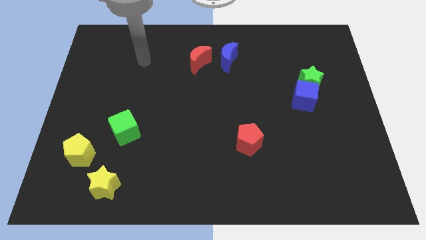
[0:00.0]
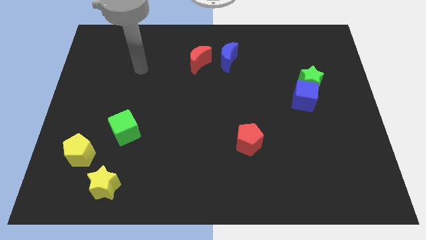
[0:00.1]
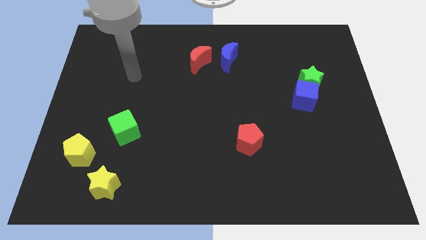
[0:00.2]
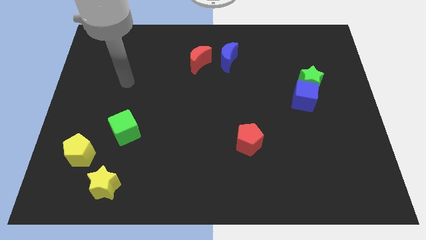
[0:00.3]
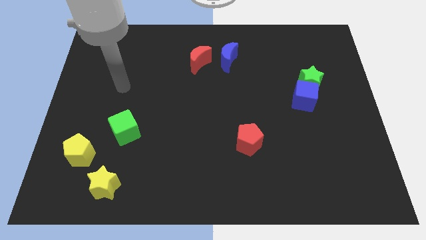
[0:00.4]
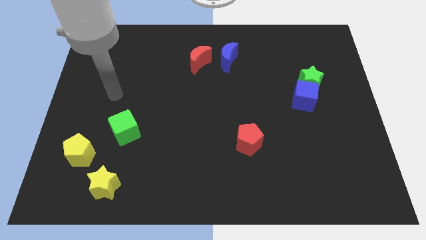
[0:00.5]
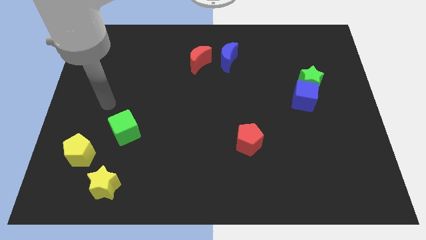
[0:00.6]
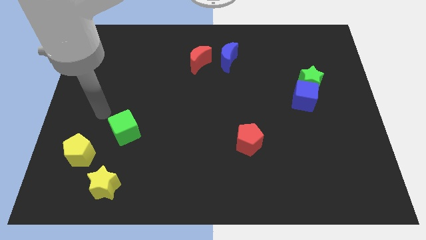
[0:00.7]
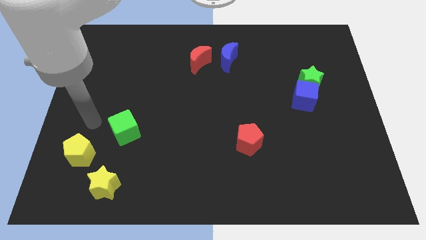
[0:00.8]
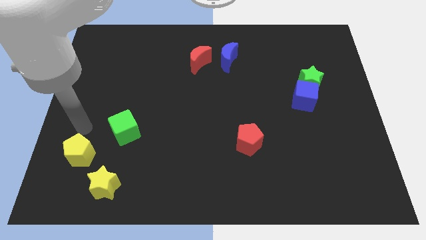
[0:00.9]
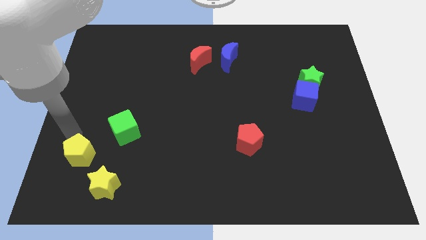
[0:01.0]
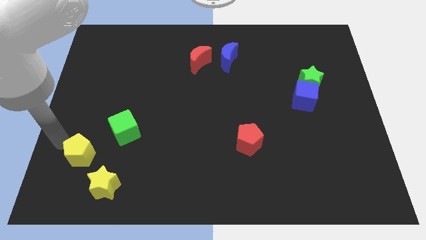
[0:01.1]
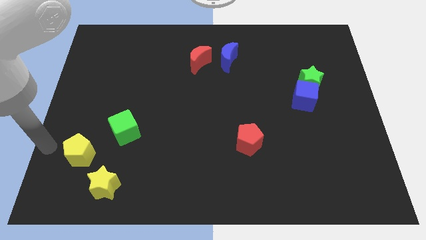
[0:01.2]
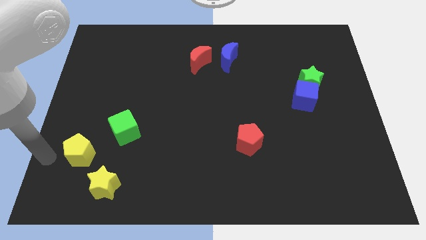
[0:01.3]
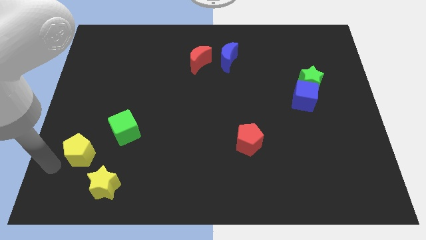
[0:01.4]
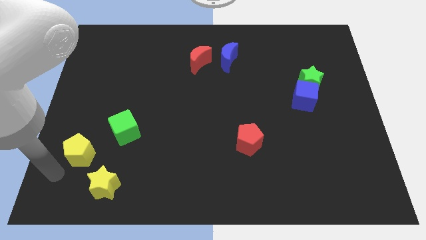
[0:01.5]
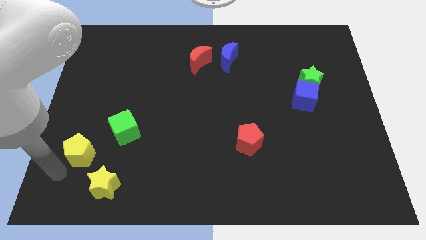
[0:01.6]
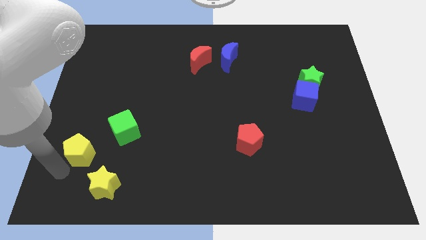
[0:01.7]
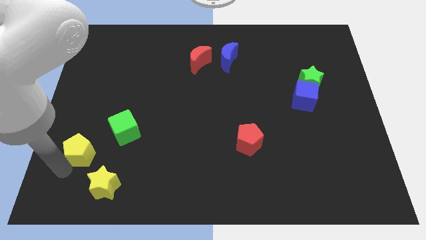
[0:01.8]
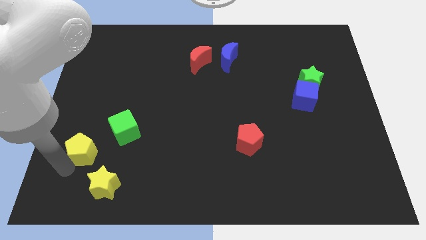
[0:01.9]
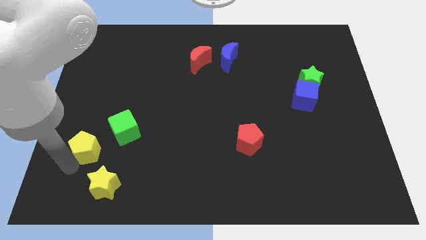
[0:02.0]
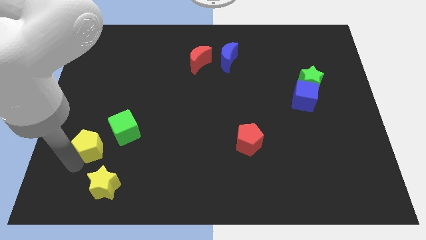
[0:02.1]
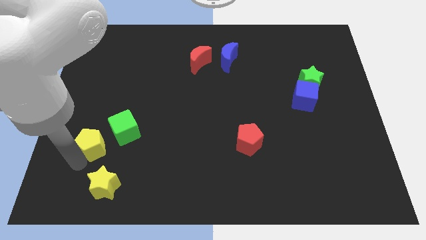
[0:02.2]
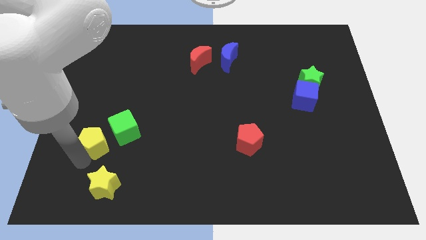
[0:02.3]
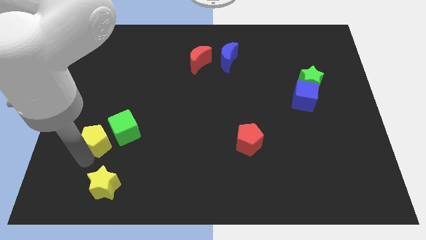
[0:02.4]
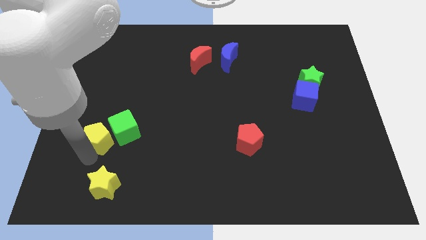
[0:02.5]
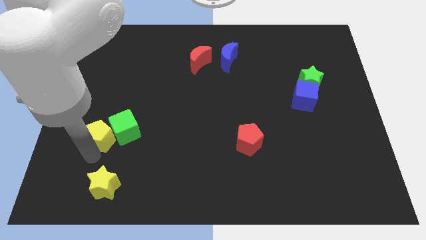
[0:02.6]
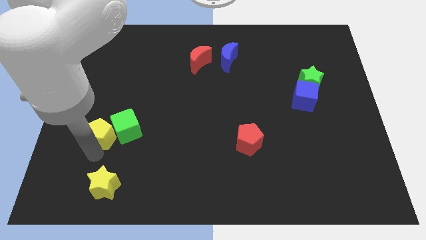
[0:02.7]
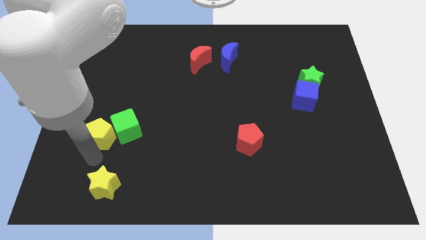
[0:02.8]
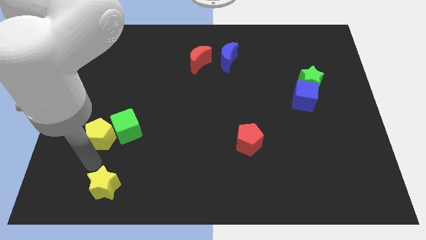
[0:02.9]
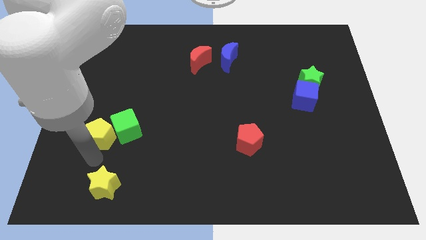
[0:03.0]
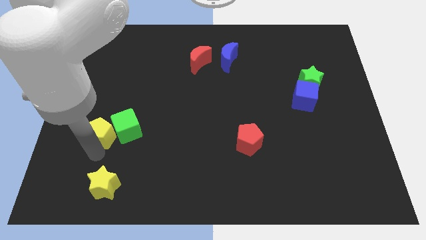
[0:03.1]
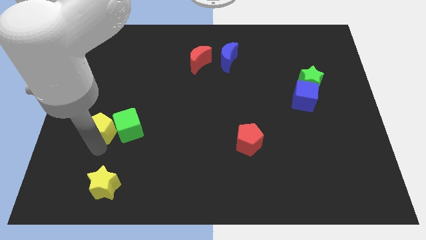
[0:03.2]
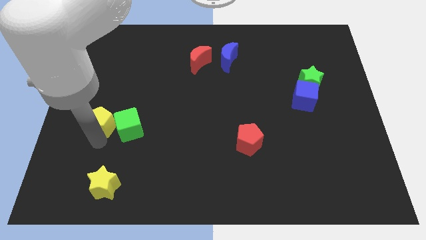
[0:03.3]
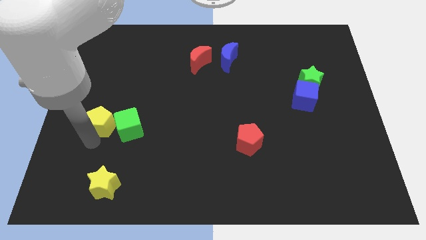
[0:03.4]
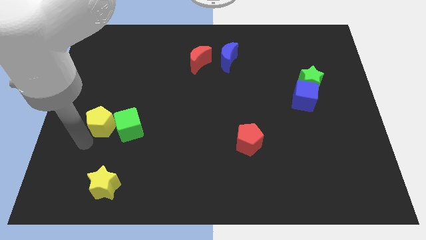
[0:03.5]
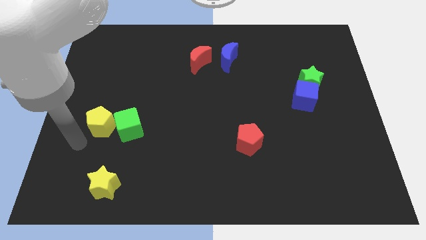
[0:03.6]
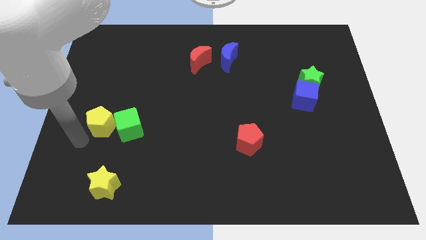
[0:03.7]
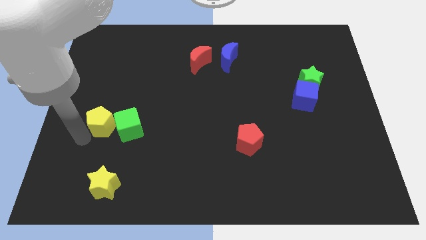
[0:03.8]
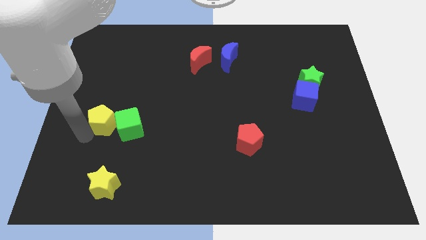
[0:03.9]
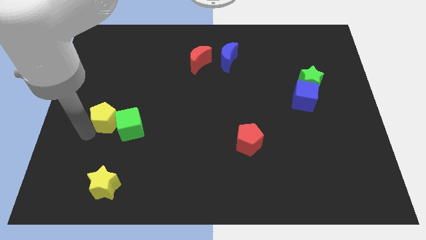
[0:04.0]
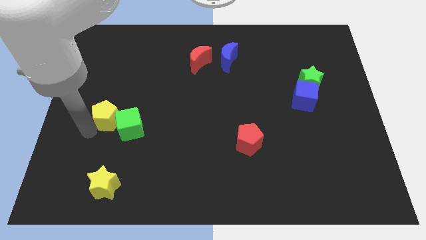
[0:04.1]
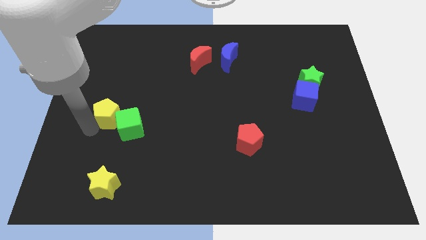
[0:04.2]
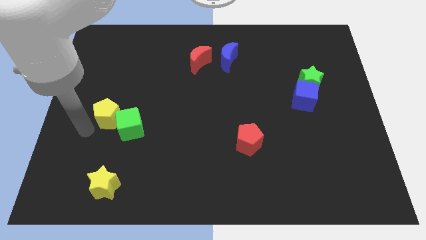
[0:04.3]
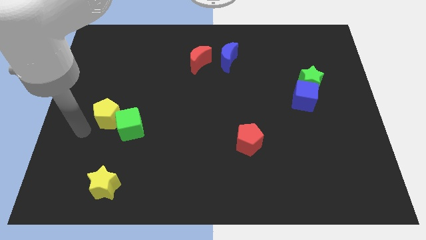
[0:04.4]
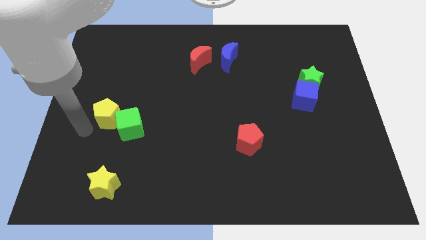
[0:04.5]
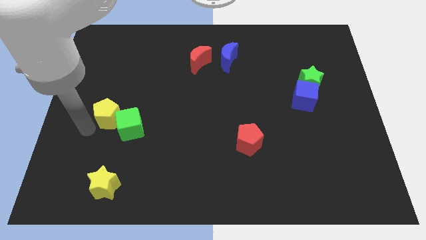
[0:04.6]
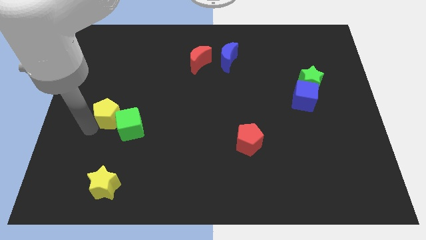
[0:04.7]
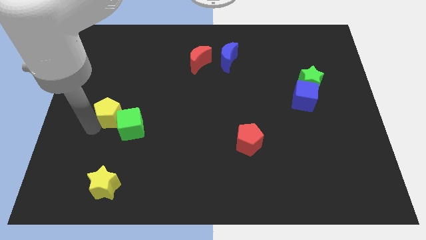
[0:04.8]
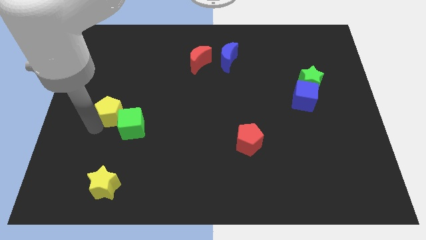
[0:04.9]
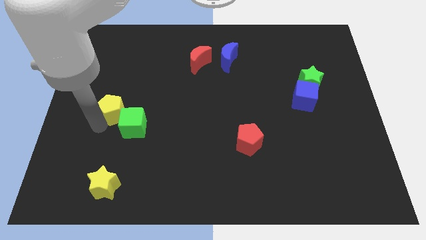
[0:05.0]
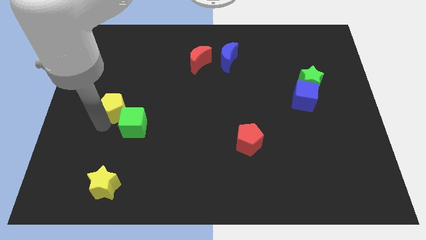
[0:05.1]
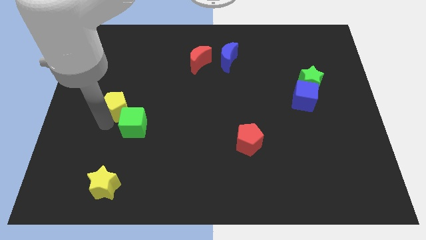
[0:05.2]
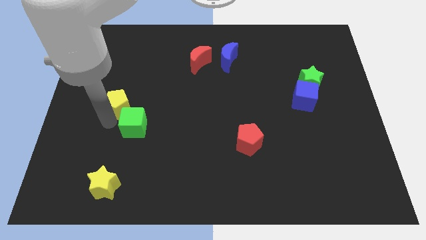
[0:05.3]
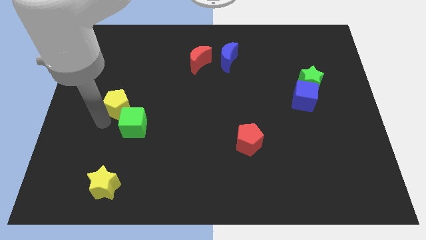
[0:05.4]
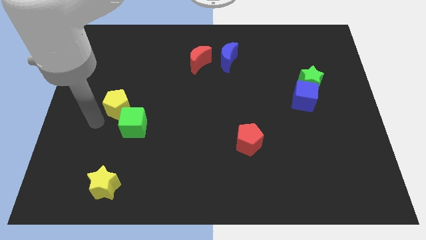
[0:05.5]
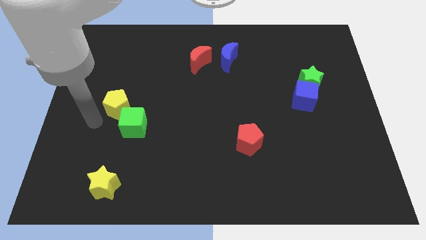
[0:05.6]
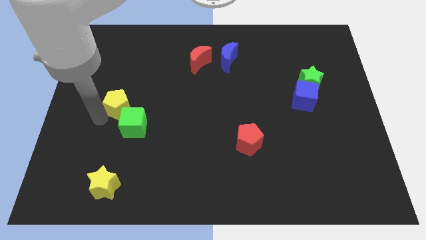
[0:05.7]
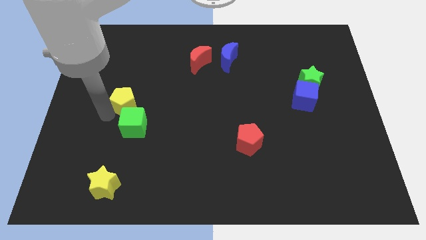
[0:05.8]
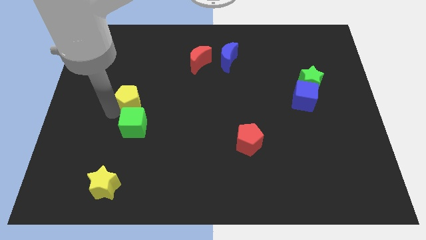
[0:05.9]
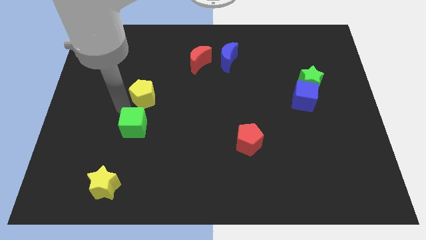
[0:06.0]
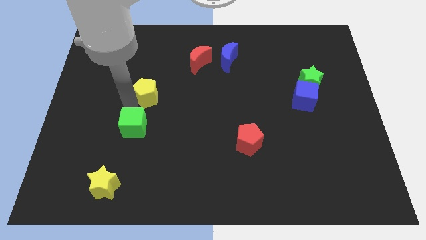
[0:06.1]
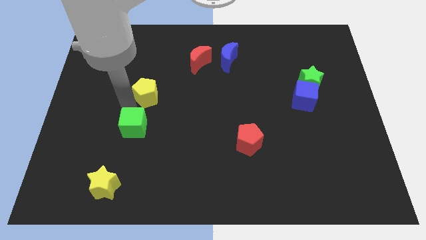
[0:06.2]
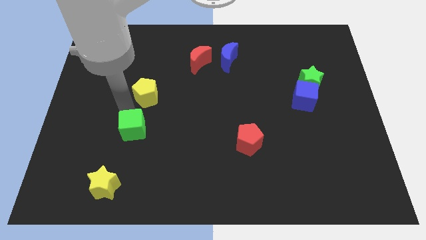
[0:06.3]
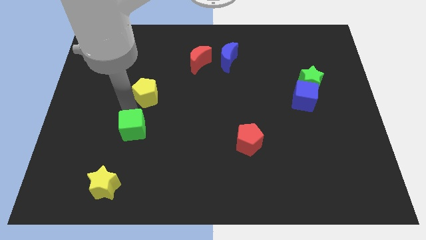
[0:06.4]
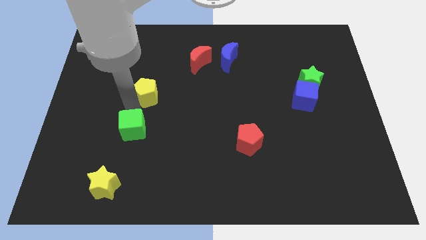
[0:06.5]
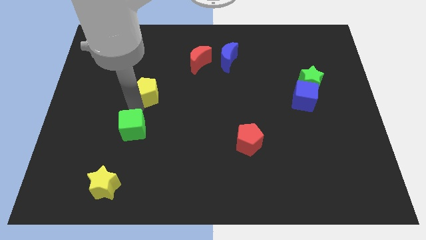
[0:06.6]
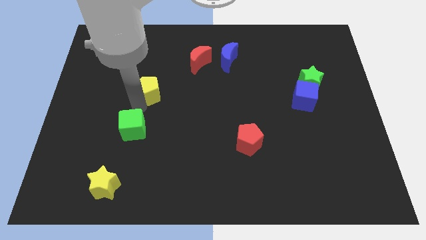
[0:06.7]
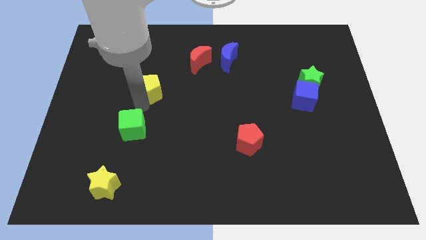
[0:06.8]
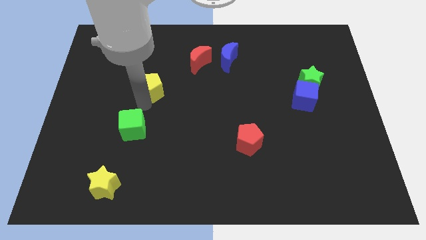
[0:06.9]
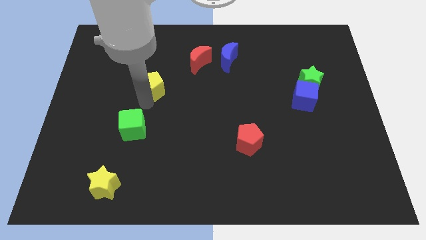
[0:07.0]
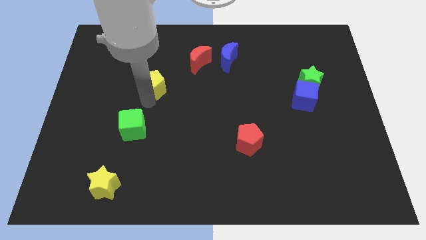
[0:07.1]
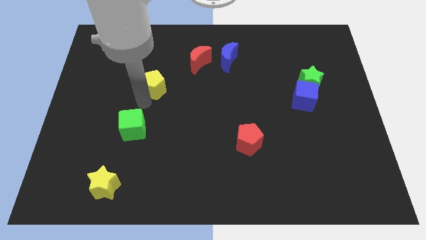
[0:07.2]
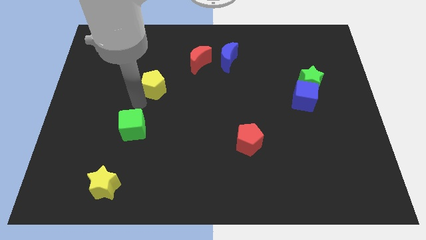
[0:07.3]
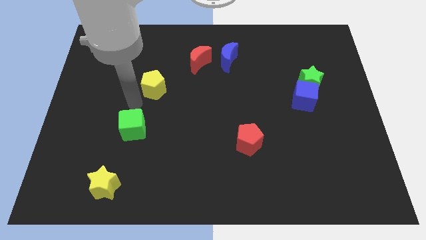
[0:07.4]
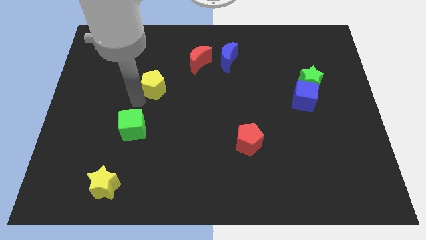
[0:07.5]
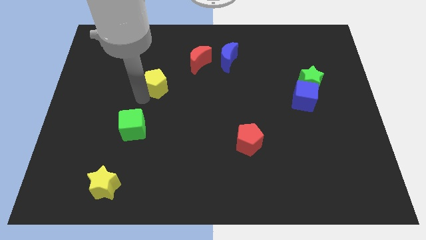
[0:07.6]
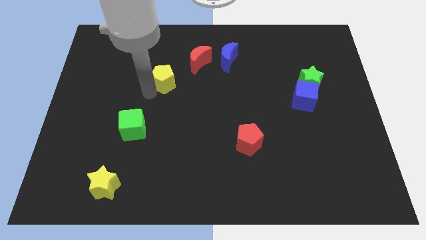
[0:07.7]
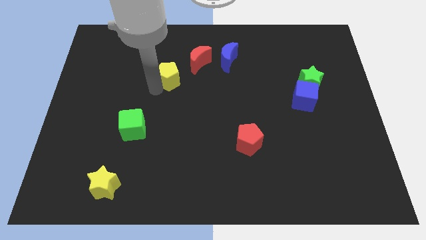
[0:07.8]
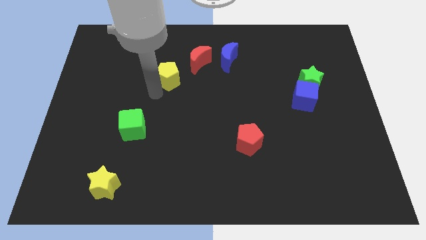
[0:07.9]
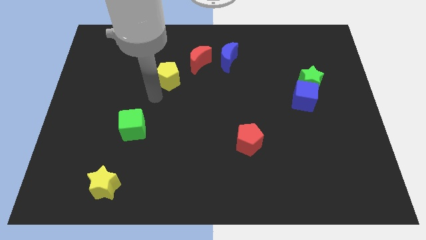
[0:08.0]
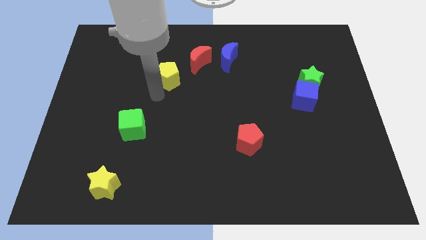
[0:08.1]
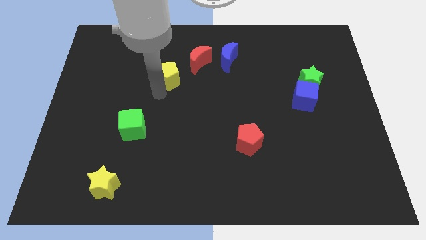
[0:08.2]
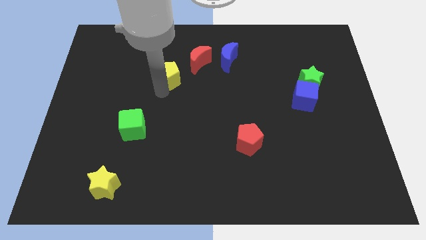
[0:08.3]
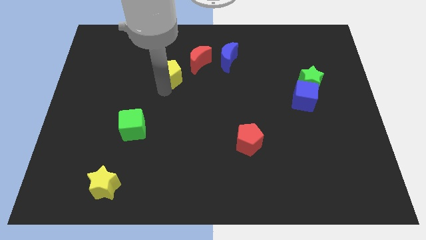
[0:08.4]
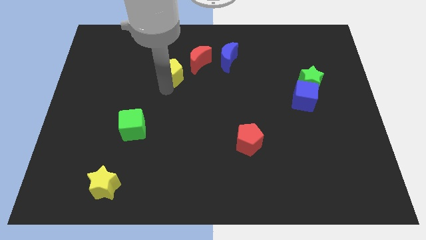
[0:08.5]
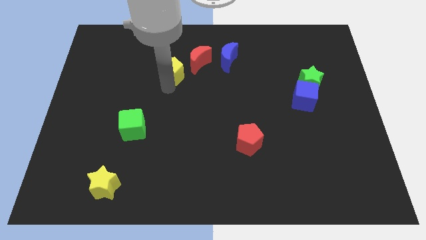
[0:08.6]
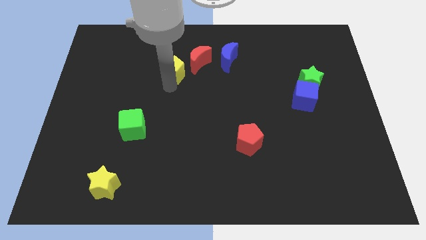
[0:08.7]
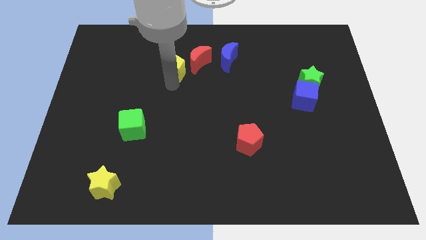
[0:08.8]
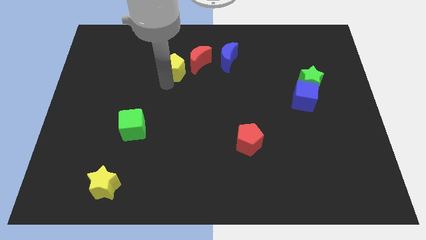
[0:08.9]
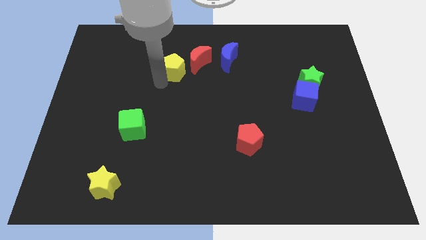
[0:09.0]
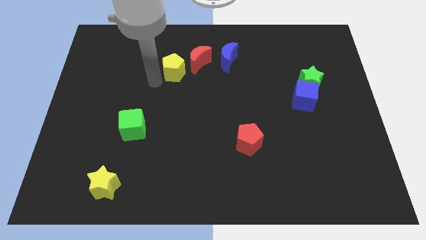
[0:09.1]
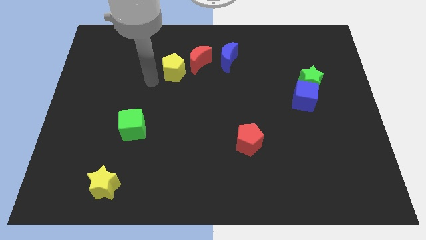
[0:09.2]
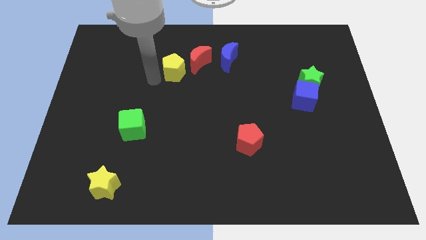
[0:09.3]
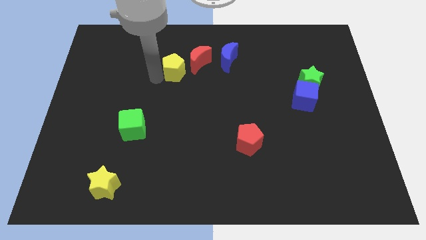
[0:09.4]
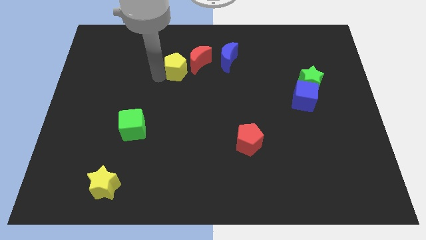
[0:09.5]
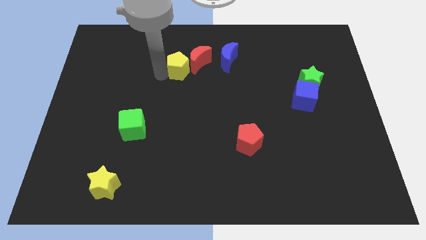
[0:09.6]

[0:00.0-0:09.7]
push the yellow pentagon towards the red moon
